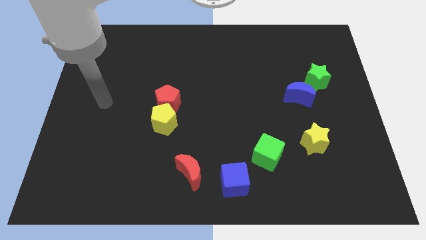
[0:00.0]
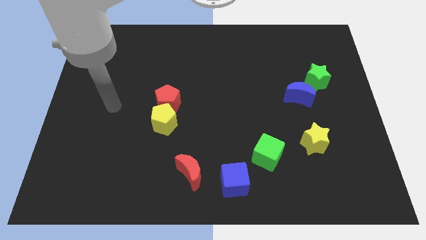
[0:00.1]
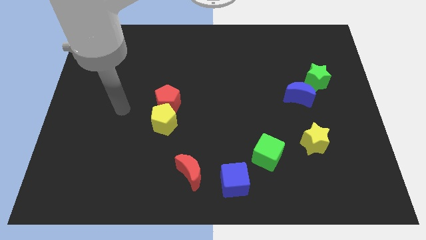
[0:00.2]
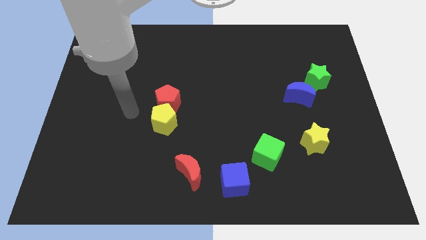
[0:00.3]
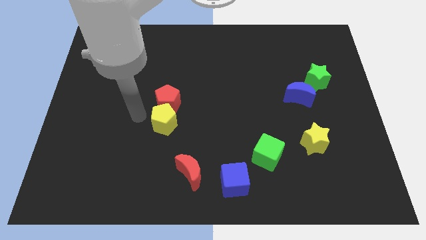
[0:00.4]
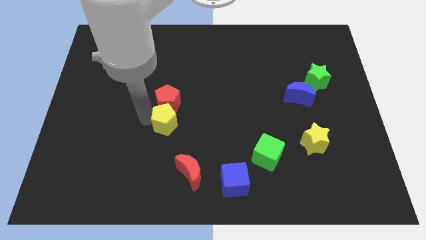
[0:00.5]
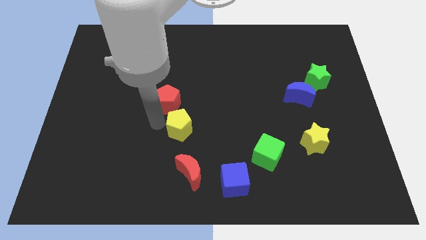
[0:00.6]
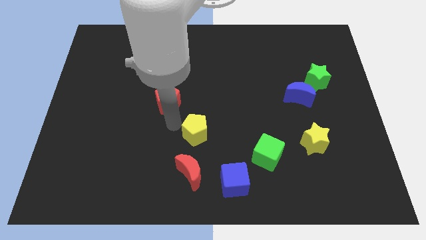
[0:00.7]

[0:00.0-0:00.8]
pull the red pentagon apart from the yellow pentagon

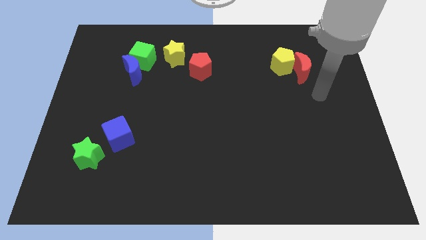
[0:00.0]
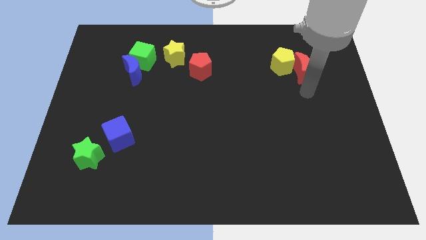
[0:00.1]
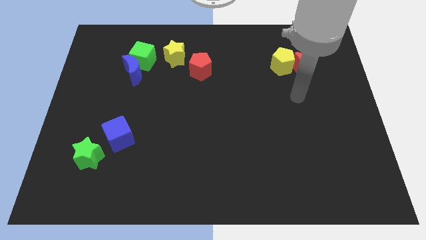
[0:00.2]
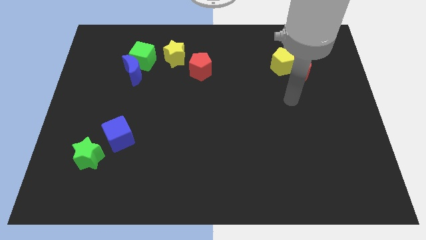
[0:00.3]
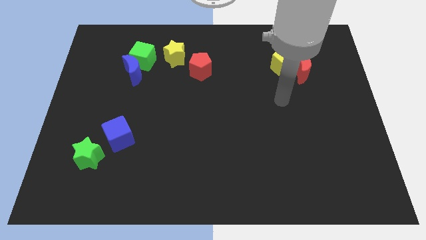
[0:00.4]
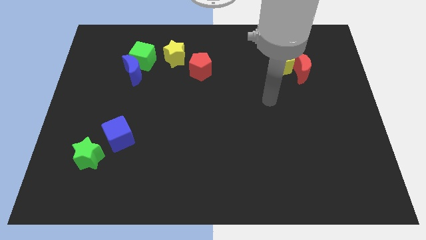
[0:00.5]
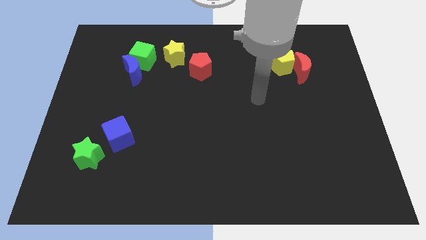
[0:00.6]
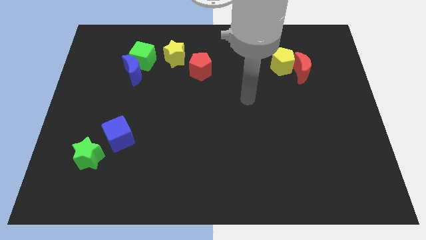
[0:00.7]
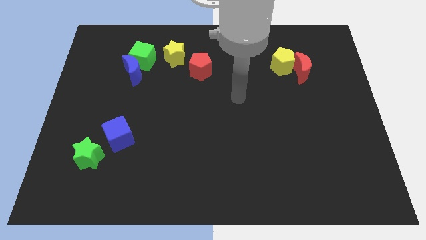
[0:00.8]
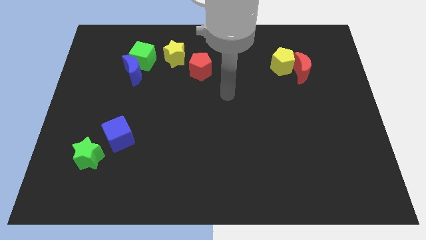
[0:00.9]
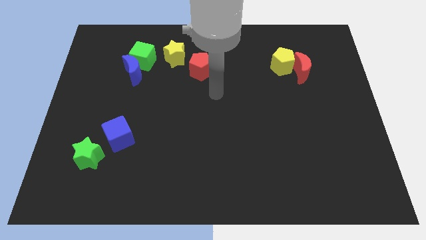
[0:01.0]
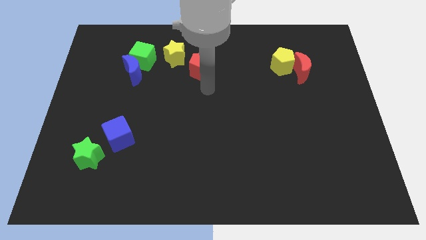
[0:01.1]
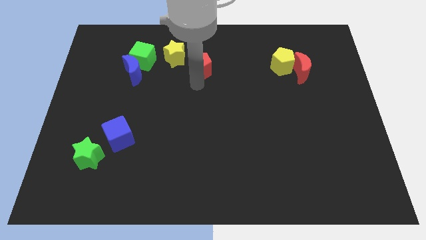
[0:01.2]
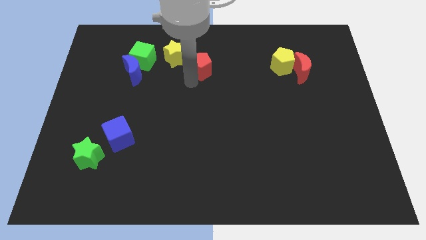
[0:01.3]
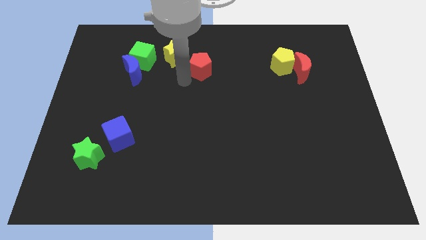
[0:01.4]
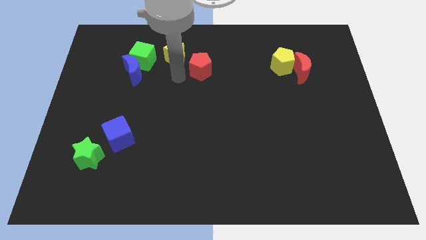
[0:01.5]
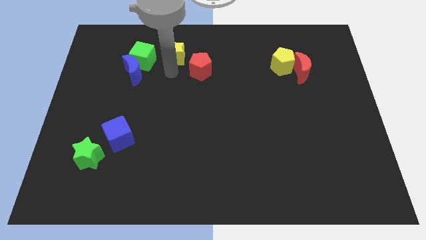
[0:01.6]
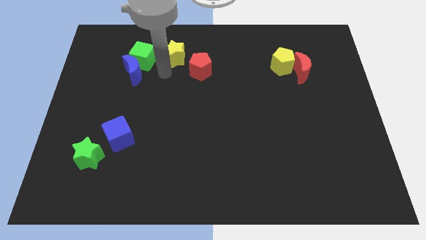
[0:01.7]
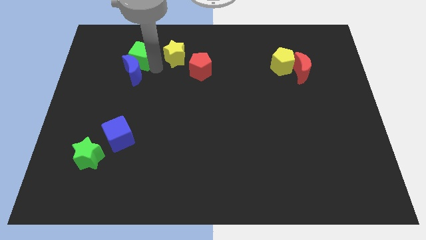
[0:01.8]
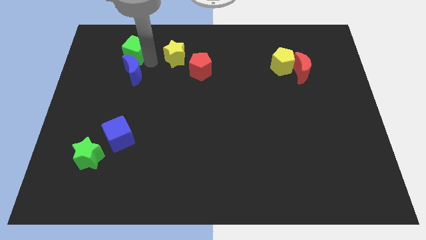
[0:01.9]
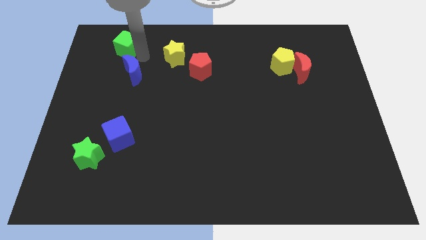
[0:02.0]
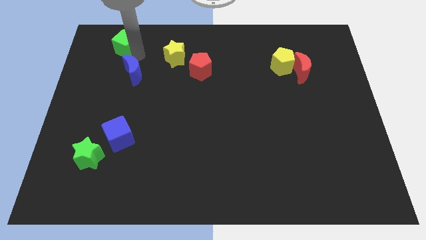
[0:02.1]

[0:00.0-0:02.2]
move the blue moon away from the green cube

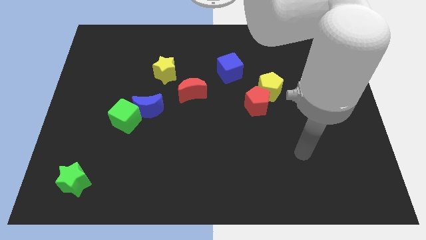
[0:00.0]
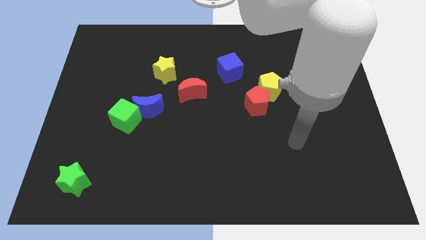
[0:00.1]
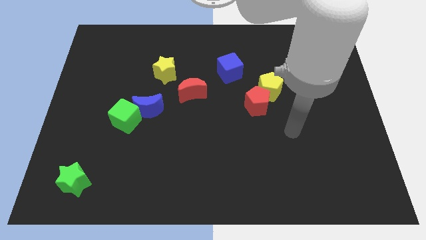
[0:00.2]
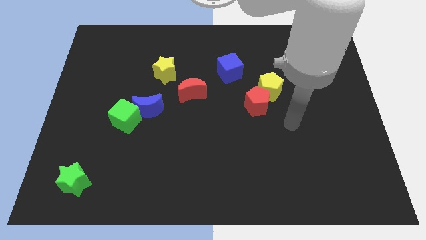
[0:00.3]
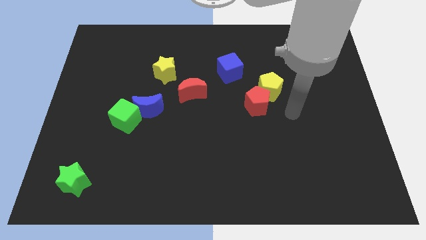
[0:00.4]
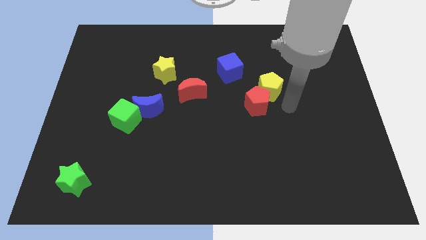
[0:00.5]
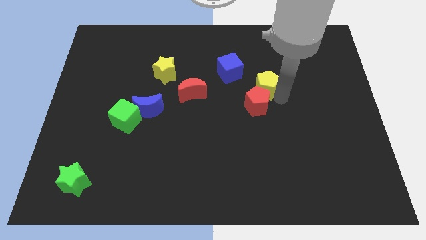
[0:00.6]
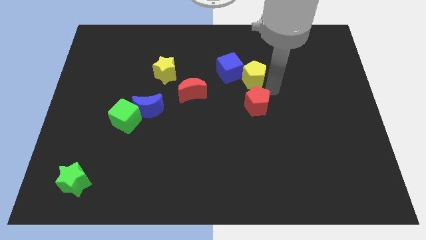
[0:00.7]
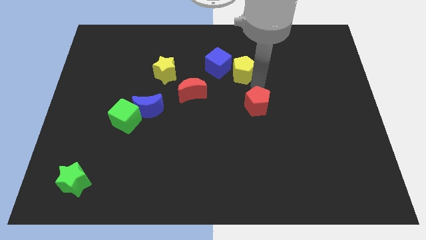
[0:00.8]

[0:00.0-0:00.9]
separate the red pentagon from the yellow pentagon

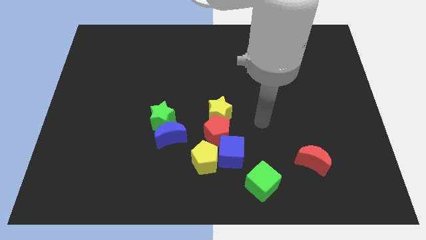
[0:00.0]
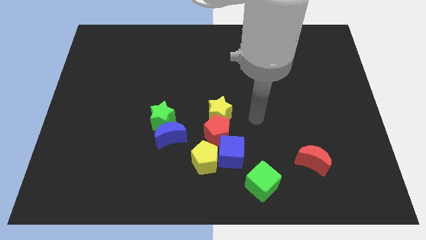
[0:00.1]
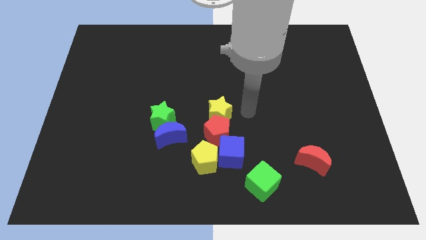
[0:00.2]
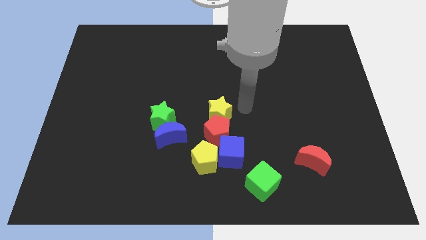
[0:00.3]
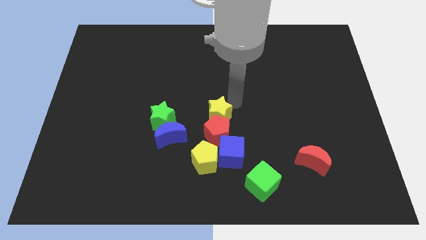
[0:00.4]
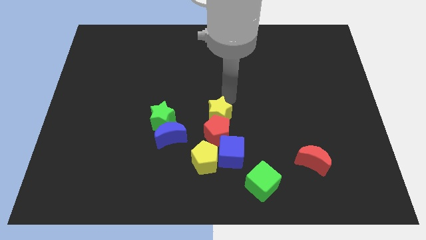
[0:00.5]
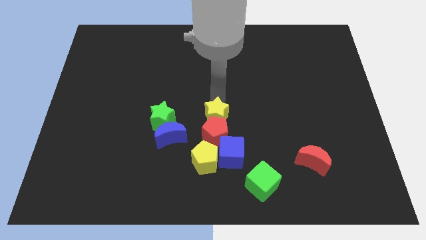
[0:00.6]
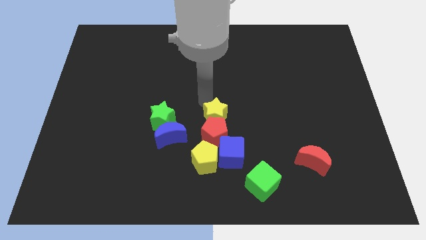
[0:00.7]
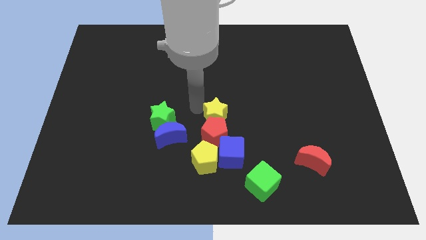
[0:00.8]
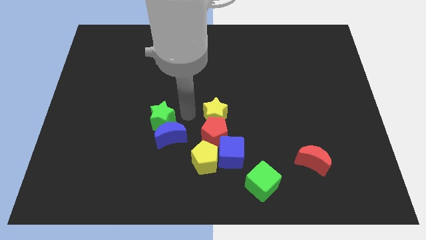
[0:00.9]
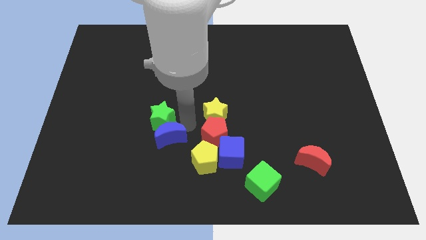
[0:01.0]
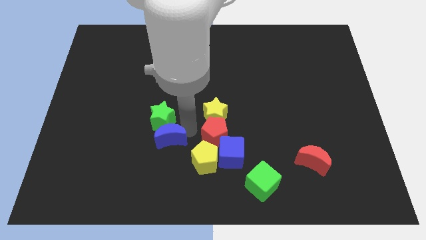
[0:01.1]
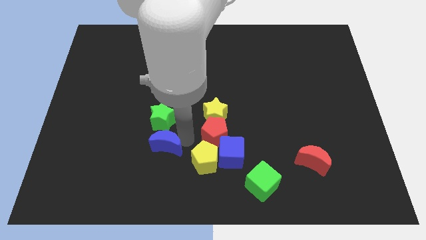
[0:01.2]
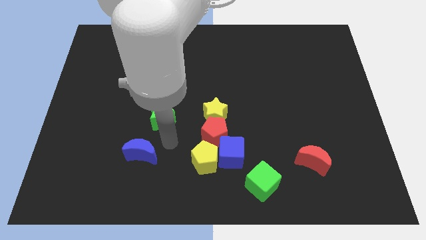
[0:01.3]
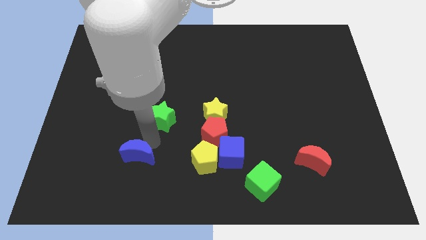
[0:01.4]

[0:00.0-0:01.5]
move the green star away from the blue moon

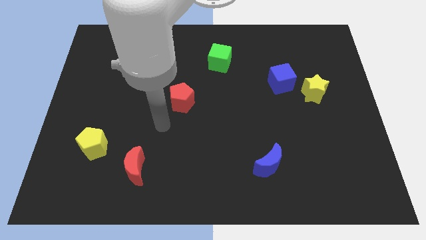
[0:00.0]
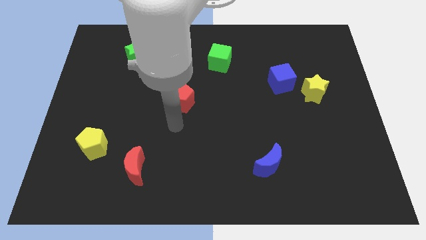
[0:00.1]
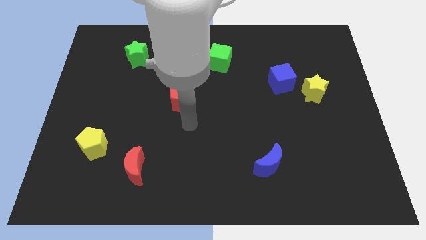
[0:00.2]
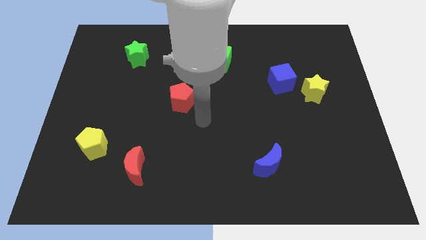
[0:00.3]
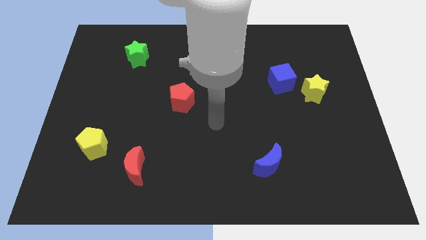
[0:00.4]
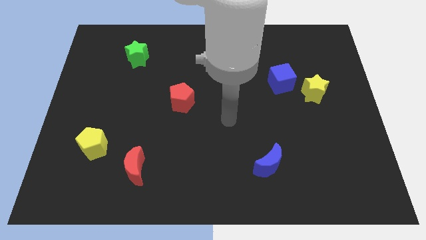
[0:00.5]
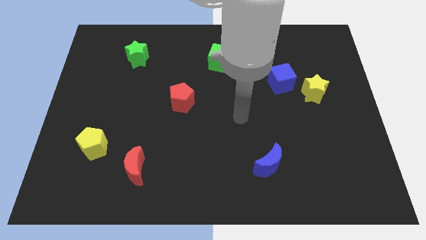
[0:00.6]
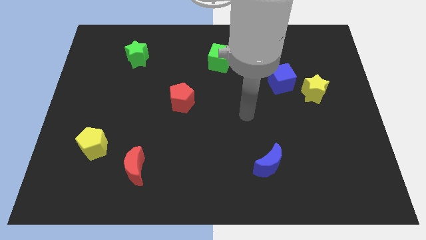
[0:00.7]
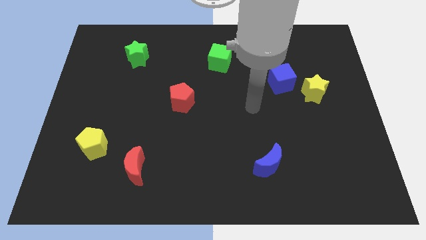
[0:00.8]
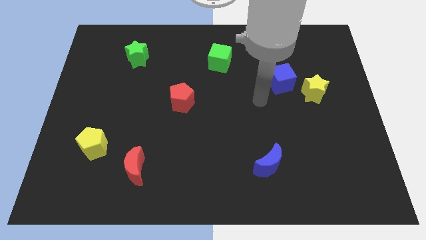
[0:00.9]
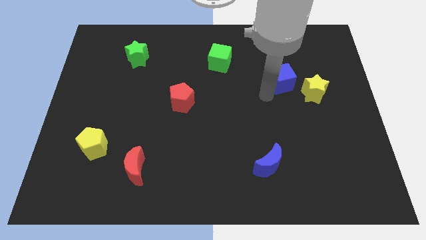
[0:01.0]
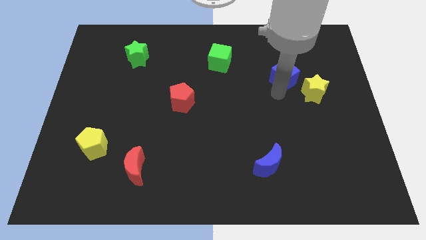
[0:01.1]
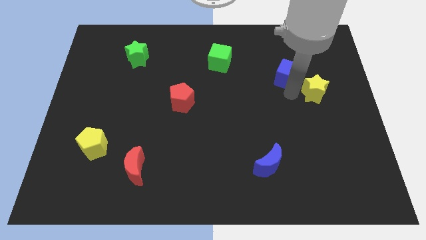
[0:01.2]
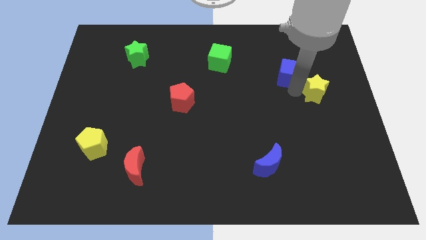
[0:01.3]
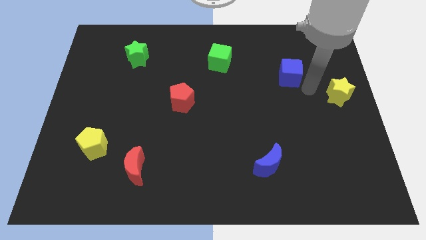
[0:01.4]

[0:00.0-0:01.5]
pull the blue cube apart from the yellow star

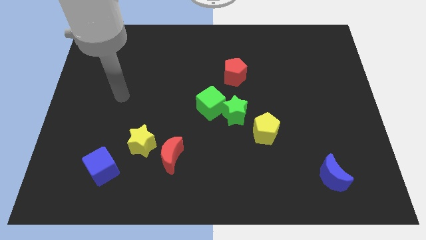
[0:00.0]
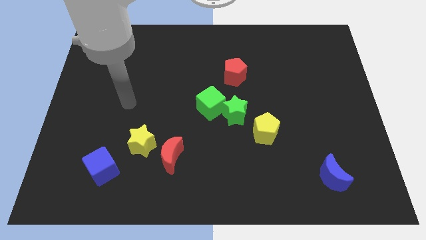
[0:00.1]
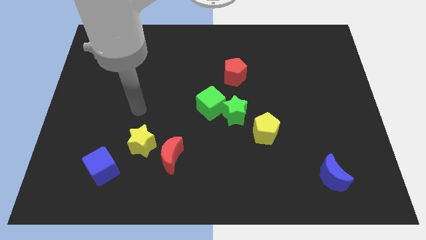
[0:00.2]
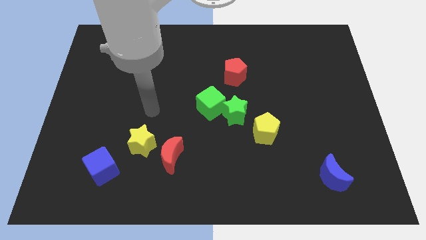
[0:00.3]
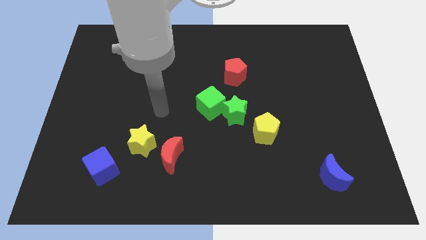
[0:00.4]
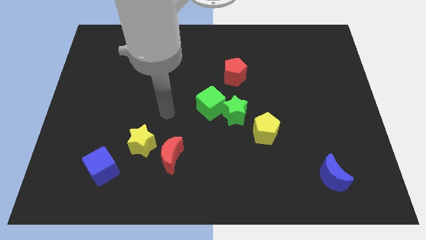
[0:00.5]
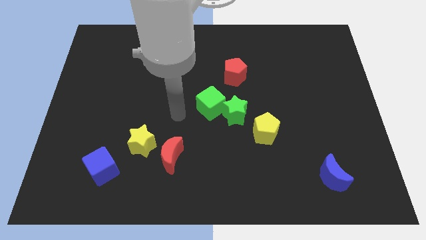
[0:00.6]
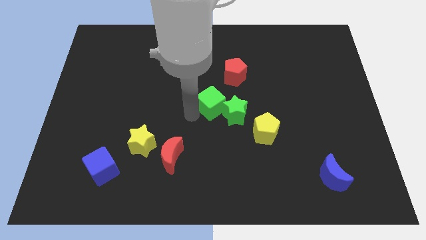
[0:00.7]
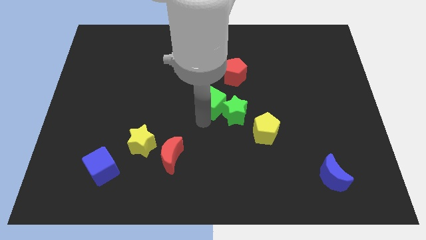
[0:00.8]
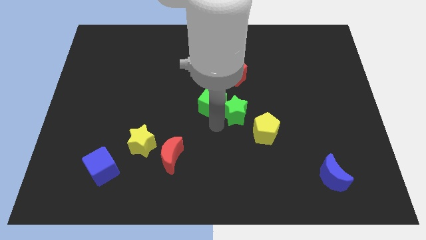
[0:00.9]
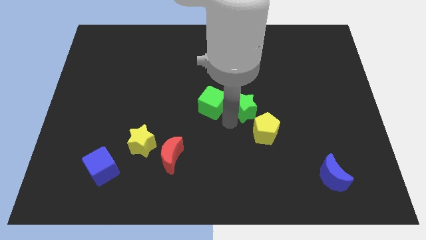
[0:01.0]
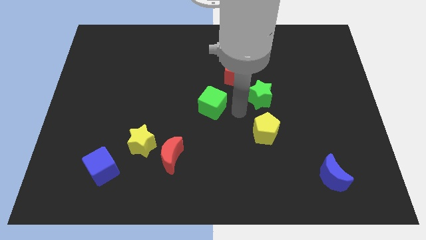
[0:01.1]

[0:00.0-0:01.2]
separate the green cube from the green star

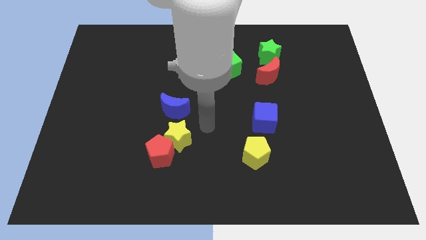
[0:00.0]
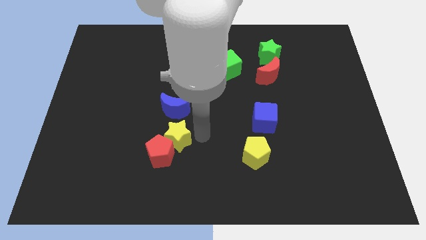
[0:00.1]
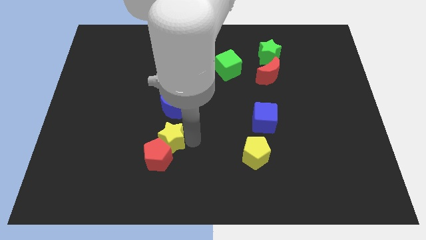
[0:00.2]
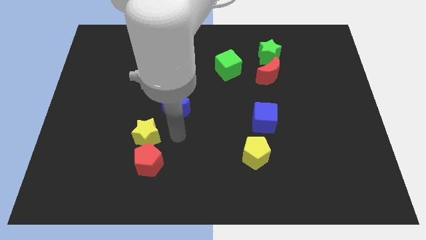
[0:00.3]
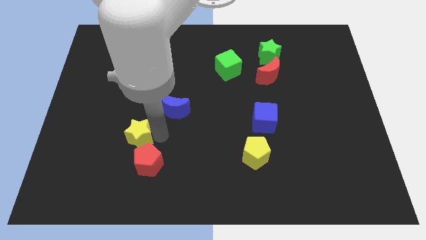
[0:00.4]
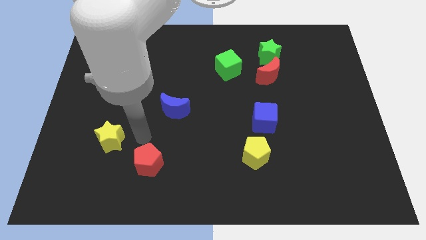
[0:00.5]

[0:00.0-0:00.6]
move the red pentagon away from the yellow star

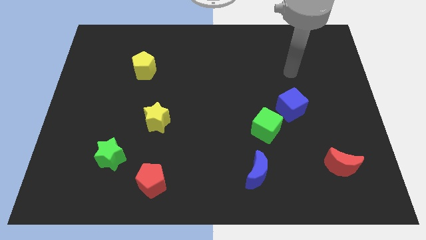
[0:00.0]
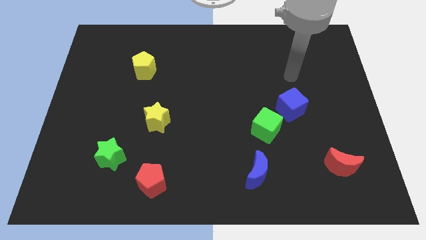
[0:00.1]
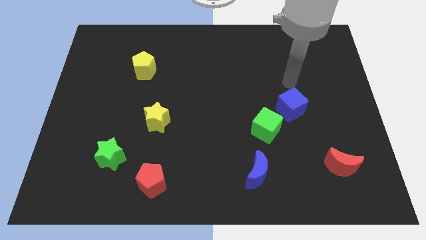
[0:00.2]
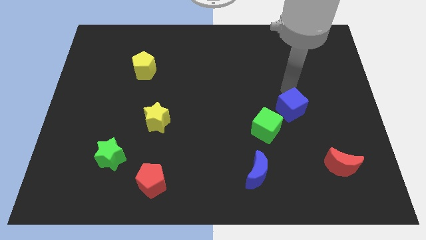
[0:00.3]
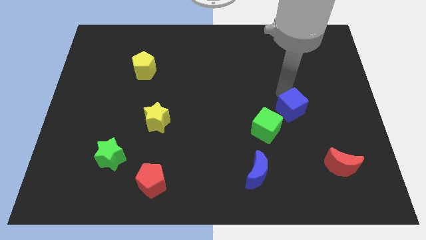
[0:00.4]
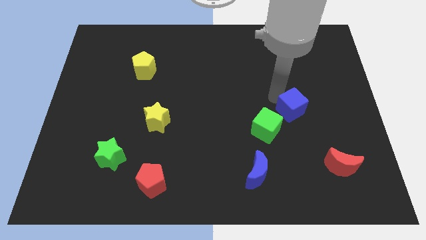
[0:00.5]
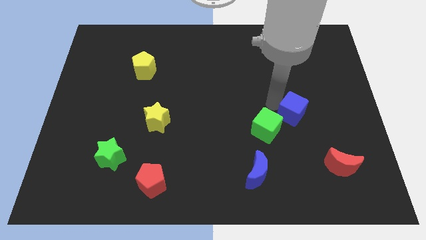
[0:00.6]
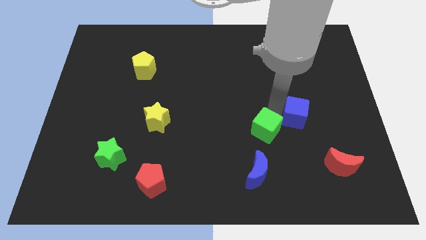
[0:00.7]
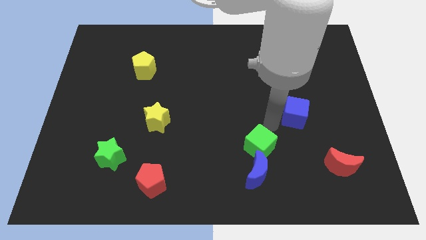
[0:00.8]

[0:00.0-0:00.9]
separate the blue cube from the green cube
